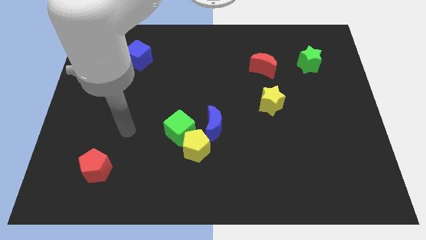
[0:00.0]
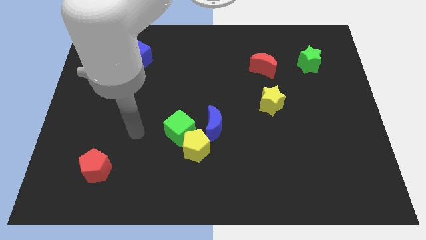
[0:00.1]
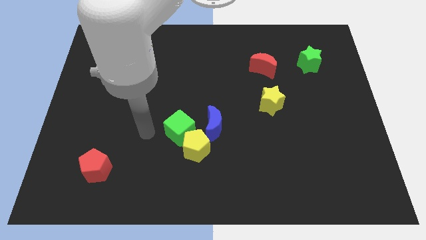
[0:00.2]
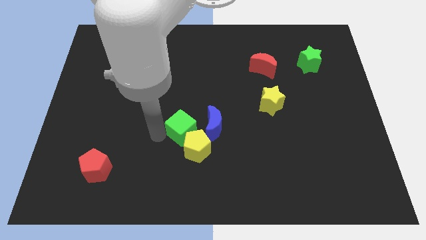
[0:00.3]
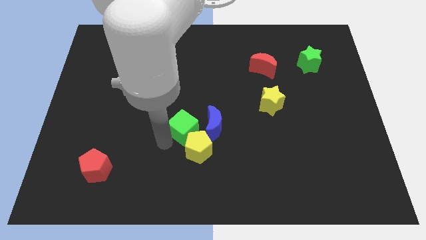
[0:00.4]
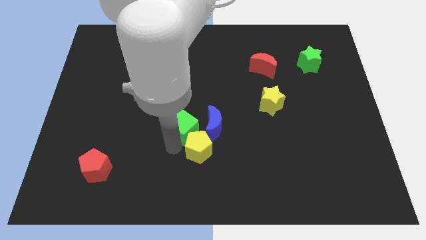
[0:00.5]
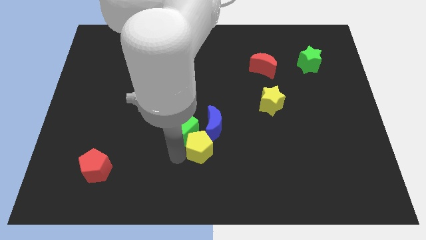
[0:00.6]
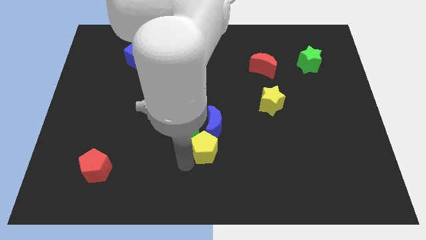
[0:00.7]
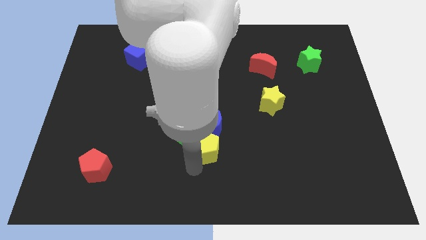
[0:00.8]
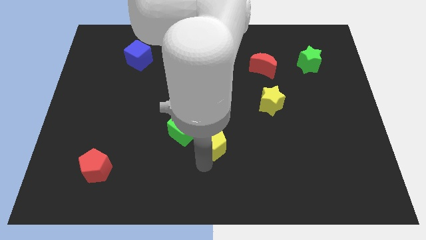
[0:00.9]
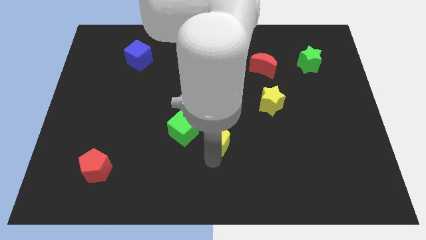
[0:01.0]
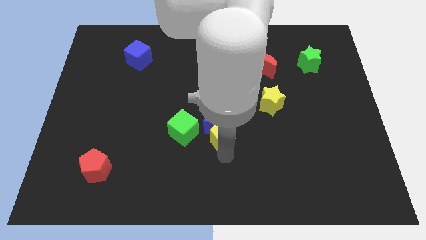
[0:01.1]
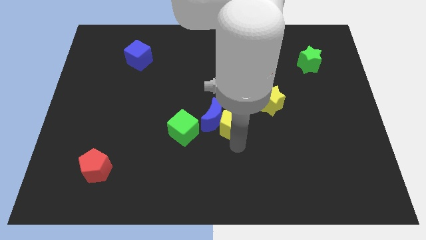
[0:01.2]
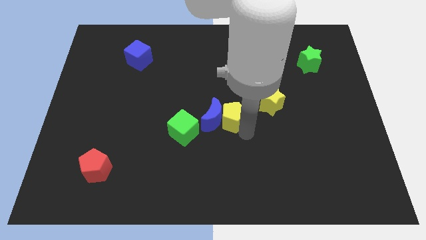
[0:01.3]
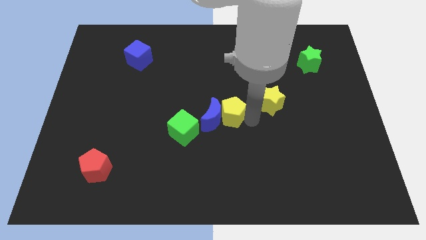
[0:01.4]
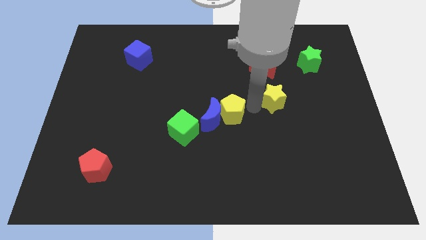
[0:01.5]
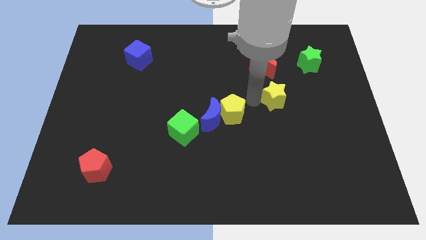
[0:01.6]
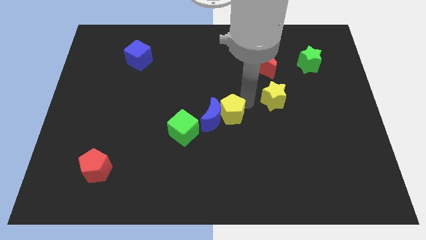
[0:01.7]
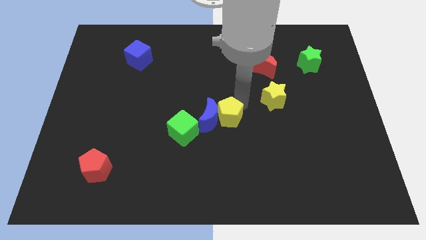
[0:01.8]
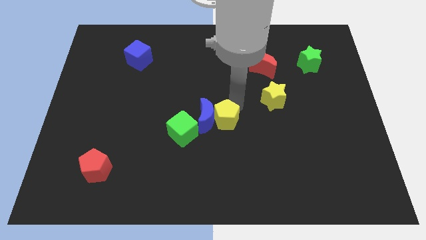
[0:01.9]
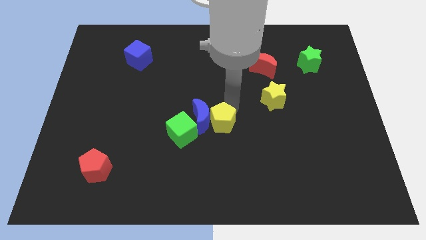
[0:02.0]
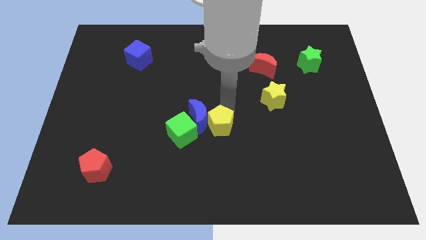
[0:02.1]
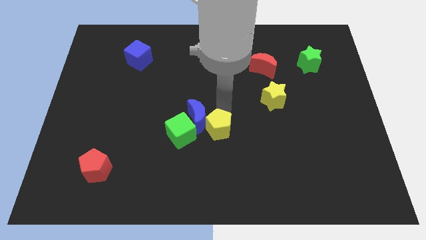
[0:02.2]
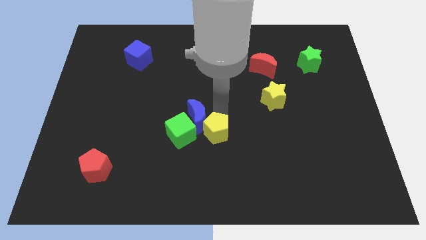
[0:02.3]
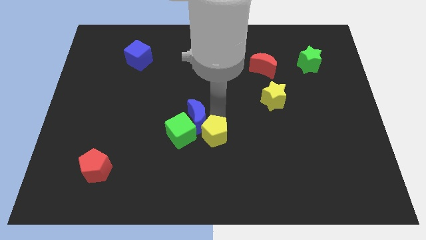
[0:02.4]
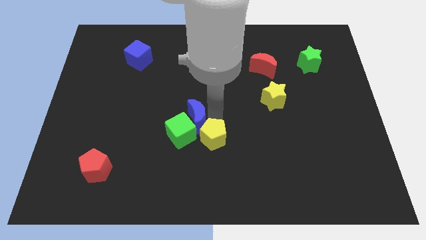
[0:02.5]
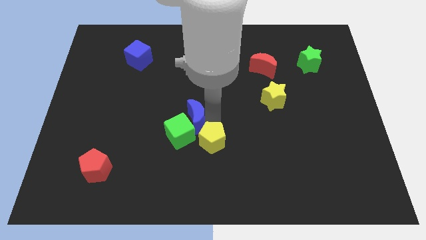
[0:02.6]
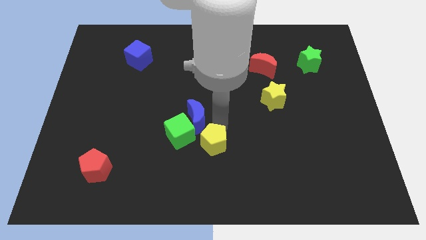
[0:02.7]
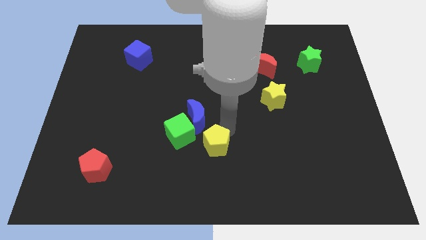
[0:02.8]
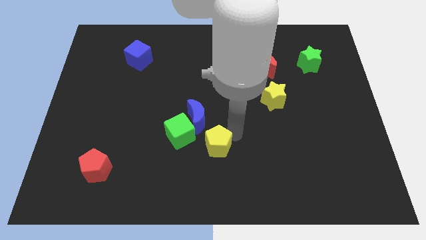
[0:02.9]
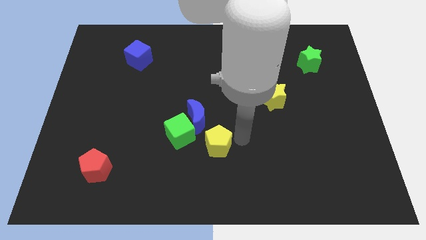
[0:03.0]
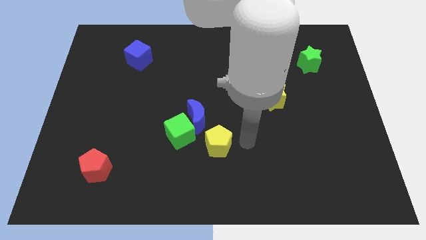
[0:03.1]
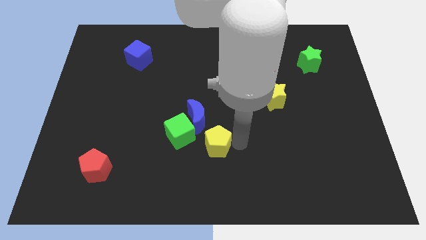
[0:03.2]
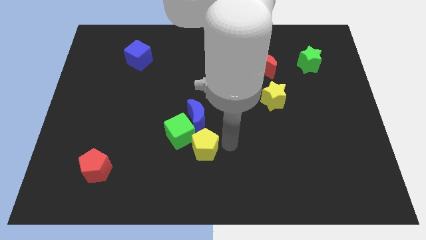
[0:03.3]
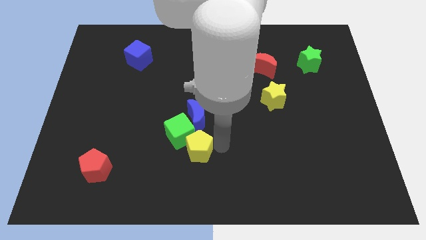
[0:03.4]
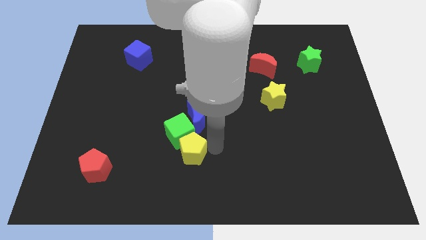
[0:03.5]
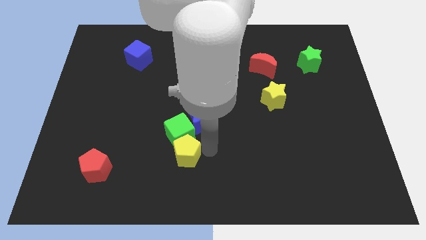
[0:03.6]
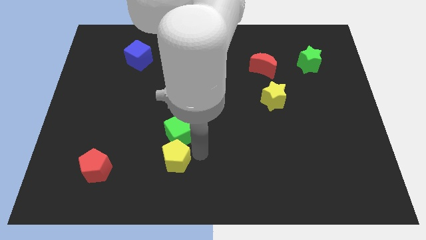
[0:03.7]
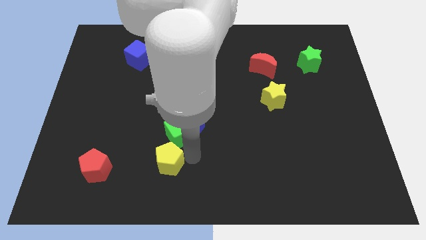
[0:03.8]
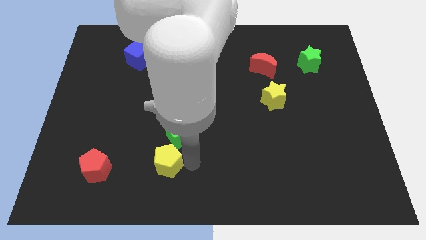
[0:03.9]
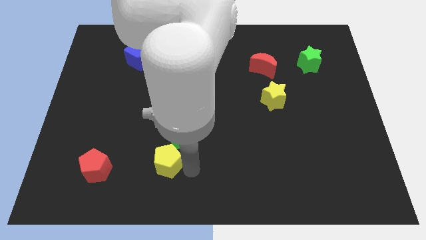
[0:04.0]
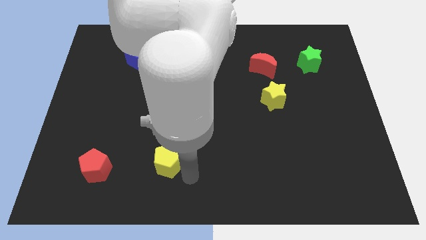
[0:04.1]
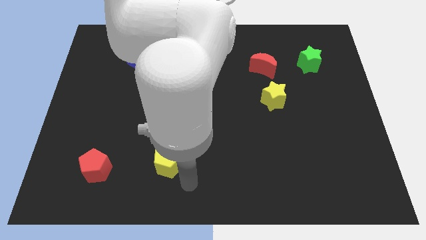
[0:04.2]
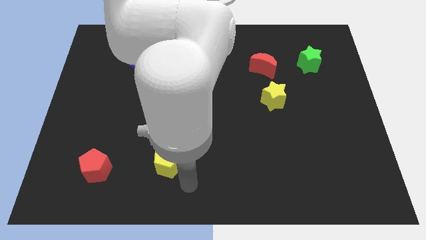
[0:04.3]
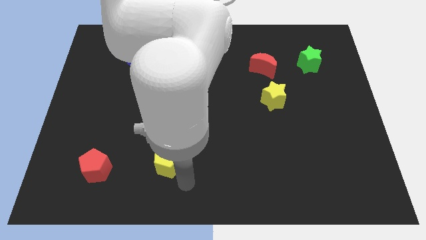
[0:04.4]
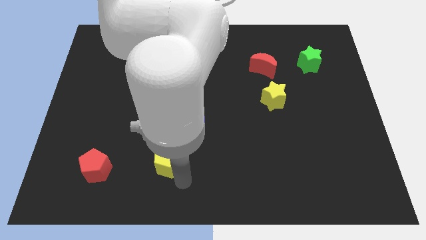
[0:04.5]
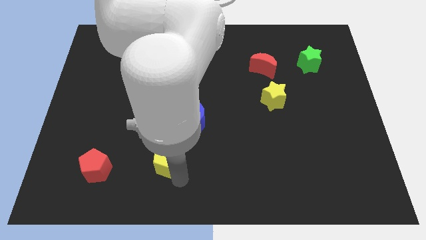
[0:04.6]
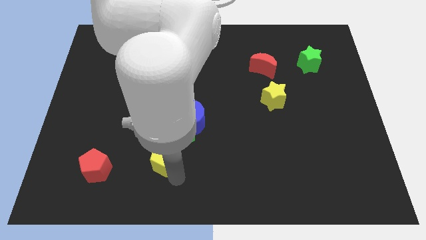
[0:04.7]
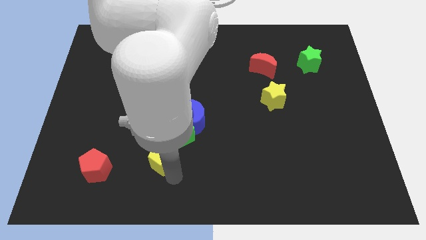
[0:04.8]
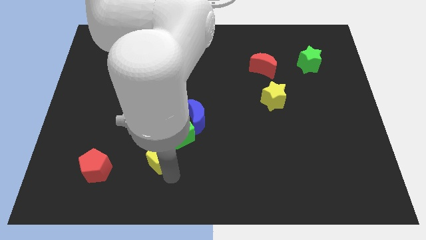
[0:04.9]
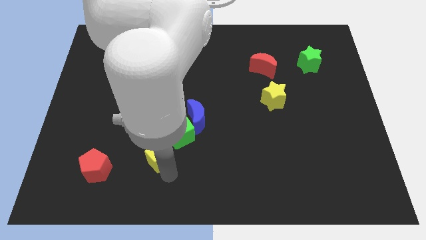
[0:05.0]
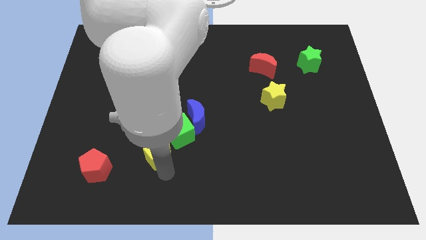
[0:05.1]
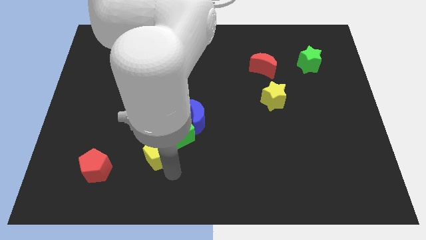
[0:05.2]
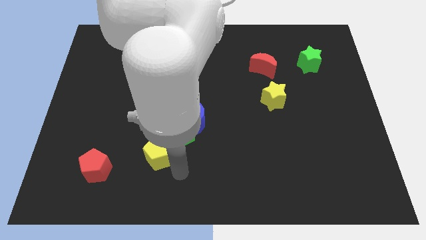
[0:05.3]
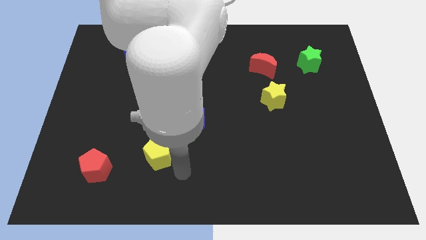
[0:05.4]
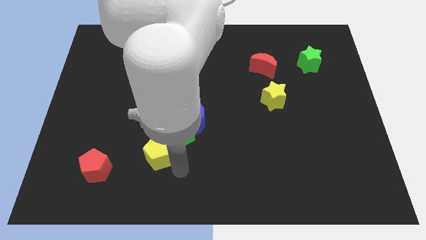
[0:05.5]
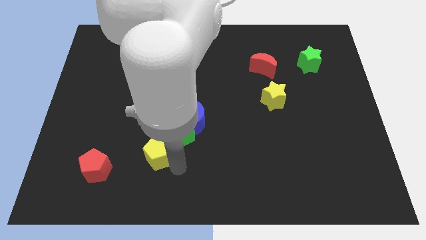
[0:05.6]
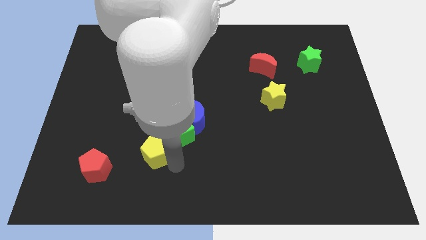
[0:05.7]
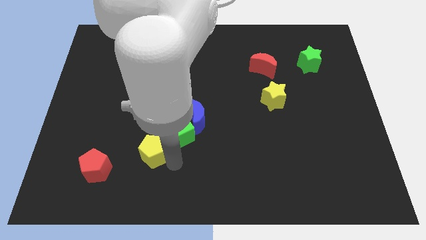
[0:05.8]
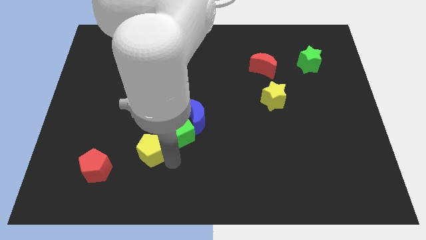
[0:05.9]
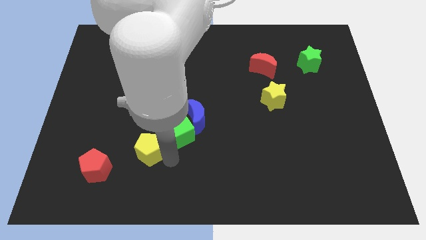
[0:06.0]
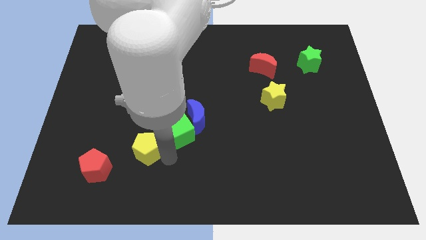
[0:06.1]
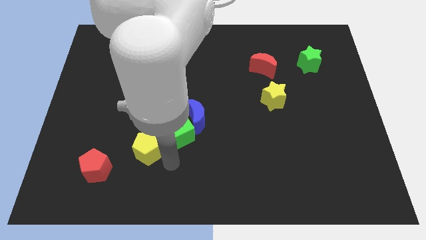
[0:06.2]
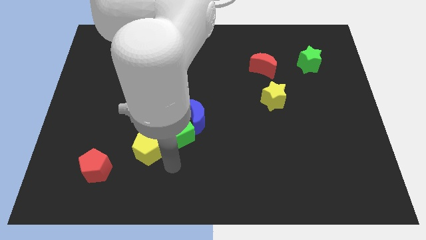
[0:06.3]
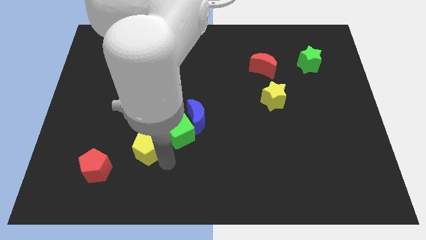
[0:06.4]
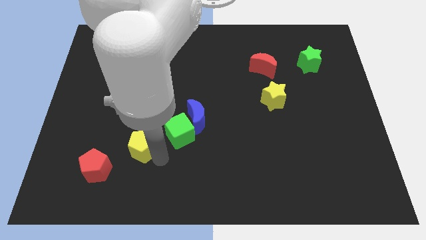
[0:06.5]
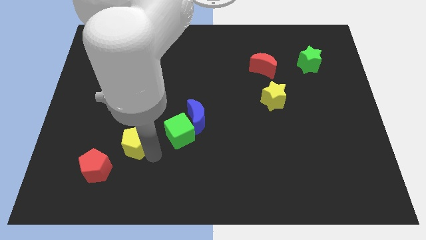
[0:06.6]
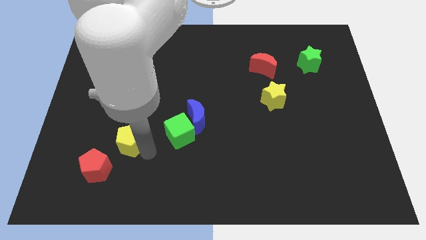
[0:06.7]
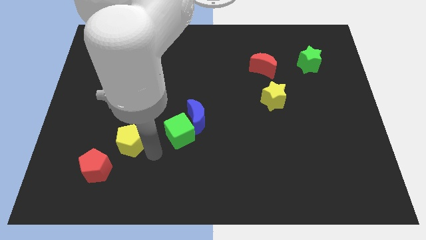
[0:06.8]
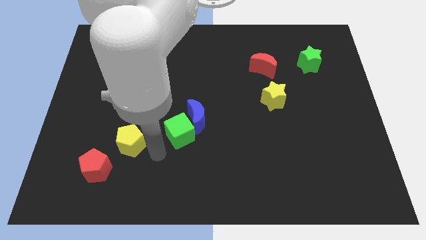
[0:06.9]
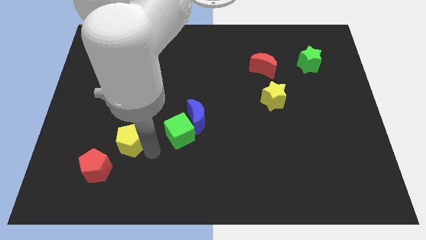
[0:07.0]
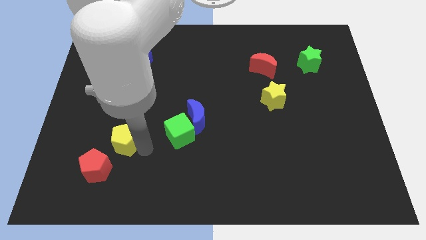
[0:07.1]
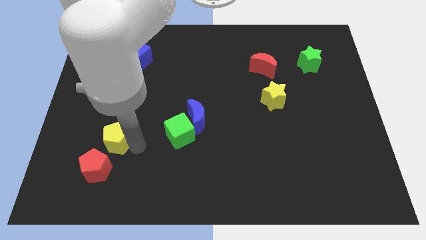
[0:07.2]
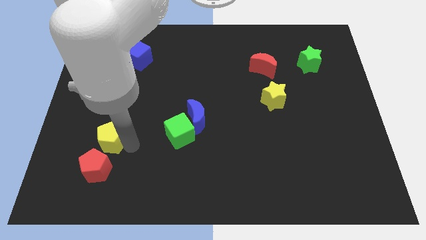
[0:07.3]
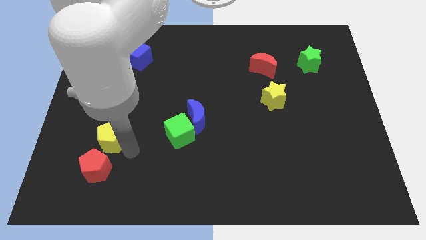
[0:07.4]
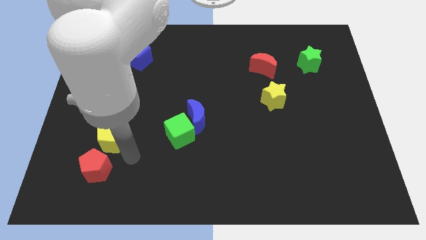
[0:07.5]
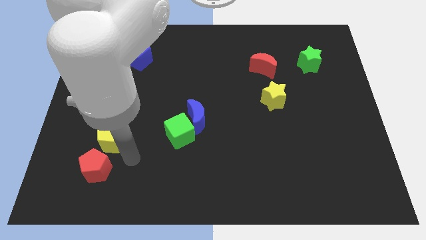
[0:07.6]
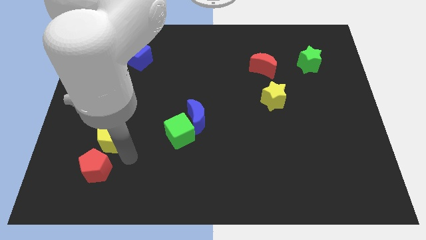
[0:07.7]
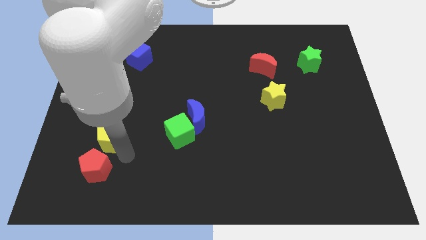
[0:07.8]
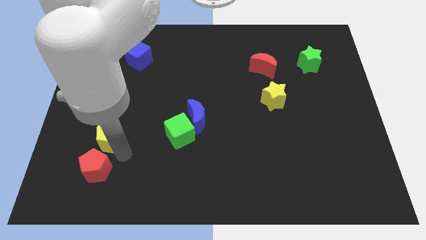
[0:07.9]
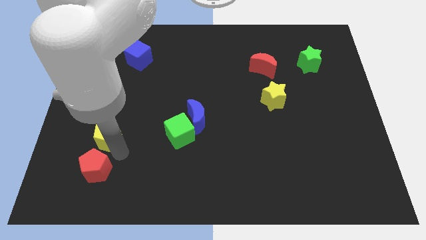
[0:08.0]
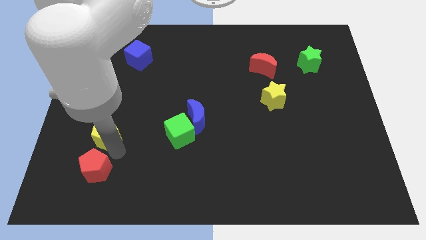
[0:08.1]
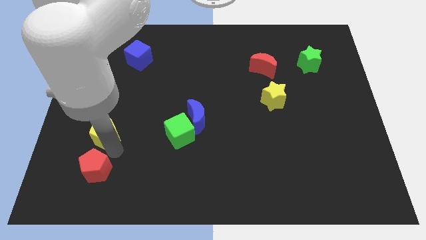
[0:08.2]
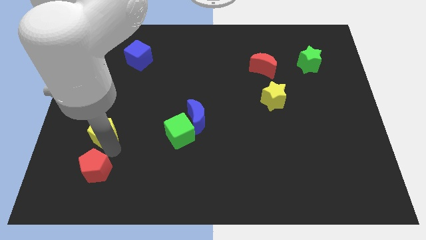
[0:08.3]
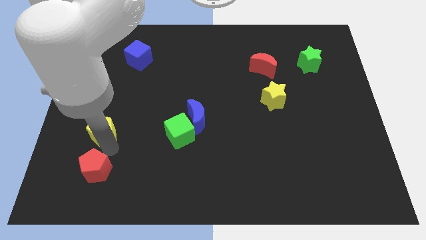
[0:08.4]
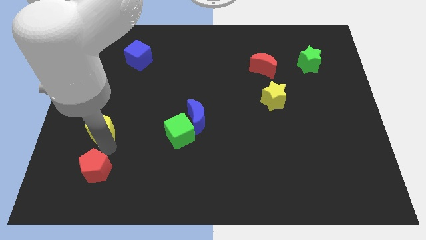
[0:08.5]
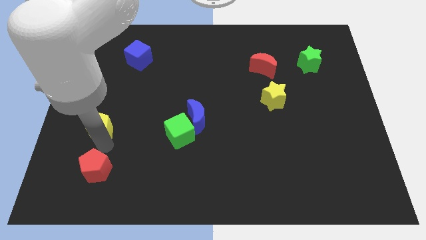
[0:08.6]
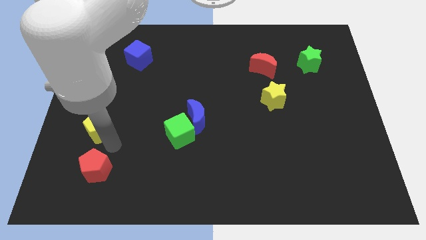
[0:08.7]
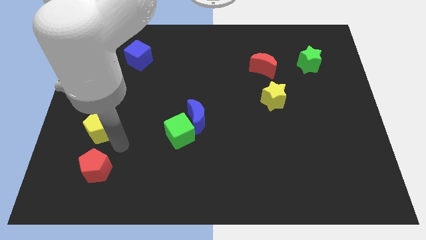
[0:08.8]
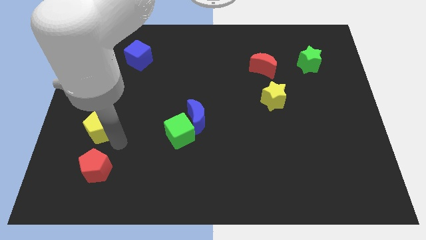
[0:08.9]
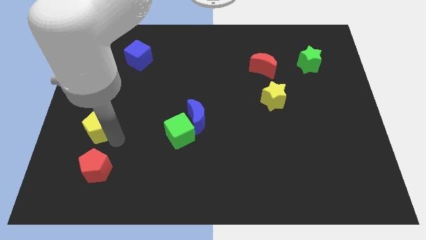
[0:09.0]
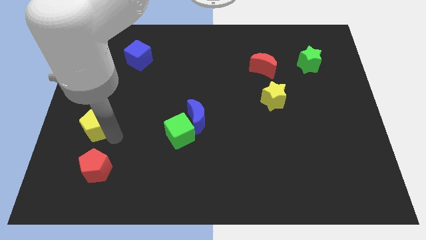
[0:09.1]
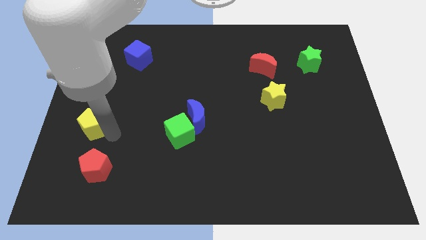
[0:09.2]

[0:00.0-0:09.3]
slide the yellow pentagon to the center left
